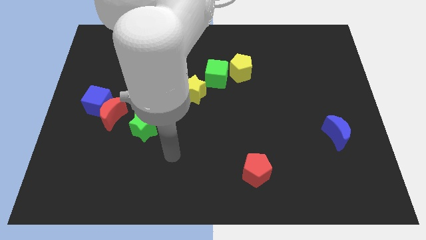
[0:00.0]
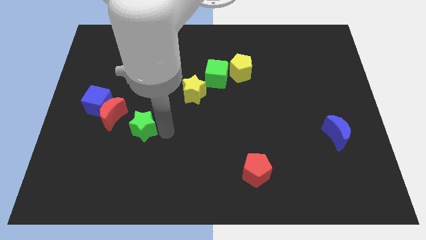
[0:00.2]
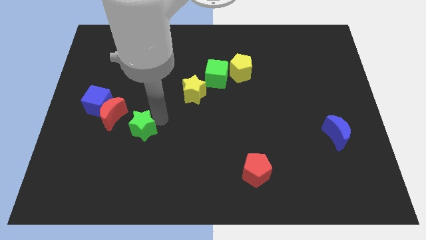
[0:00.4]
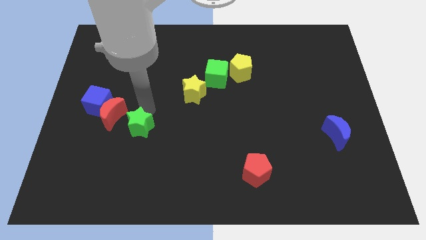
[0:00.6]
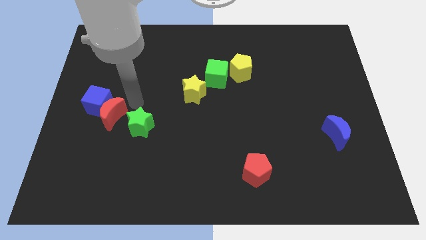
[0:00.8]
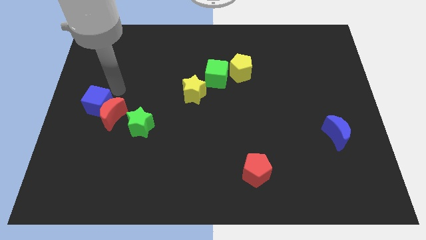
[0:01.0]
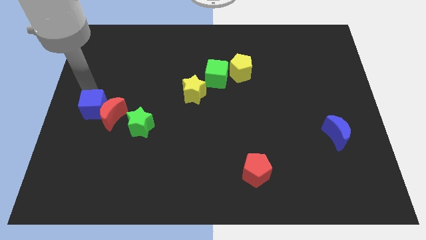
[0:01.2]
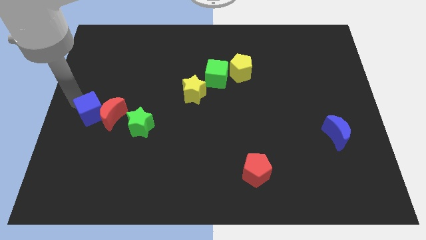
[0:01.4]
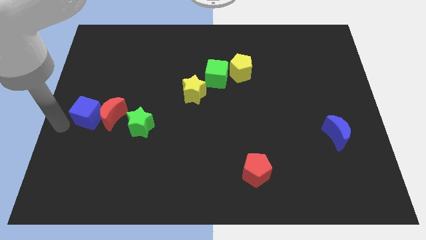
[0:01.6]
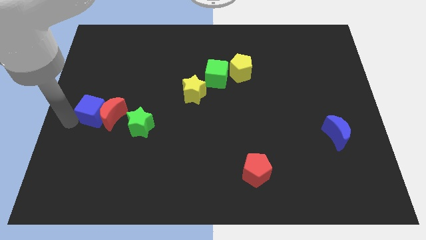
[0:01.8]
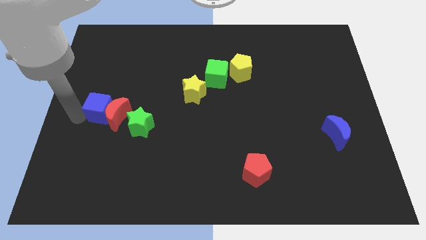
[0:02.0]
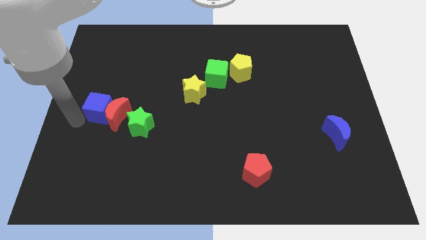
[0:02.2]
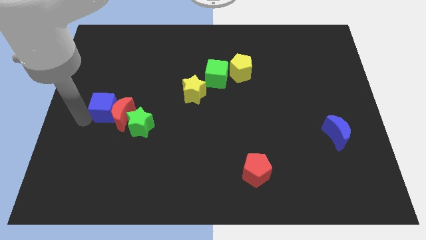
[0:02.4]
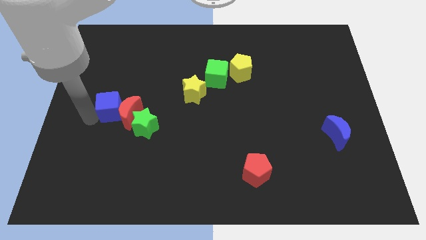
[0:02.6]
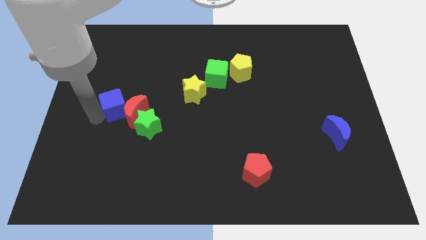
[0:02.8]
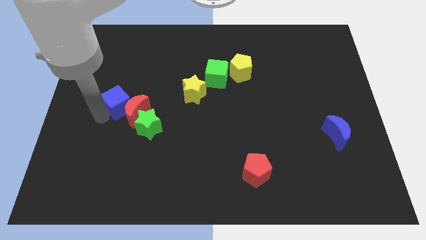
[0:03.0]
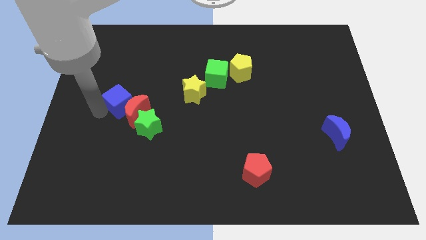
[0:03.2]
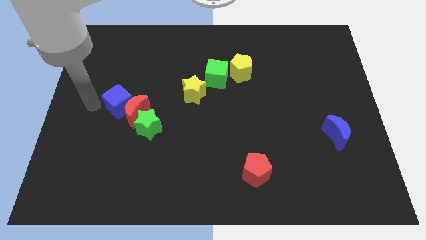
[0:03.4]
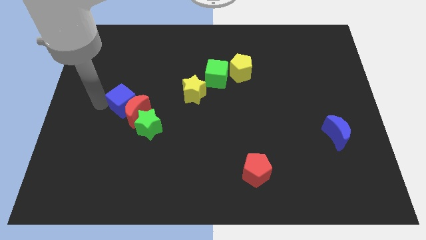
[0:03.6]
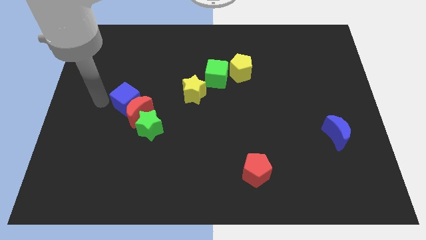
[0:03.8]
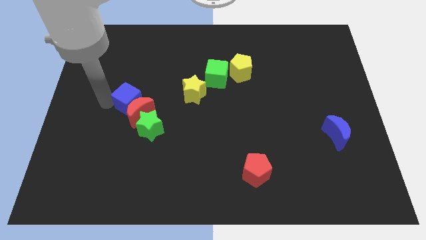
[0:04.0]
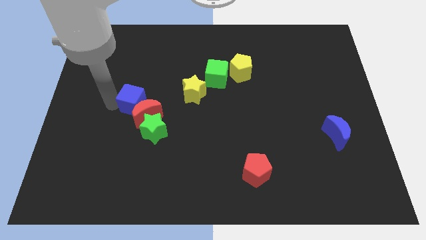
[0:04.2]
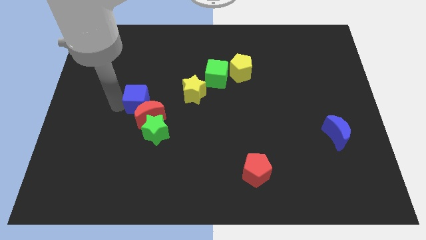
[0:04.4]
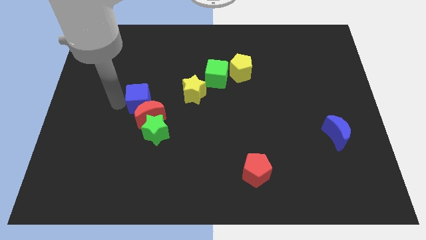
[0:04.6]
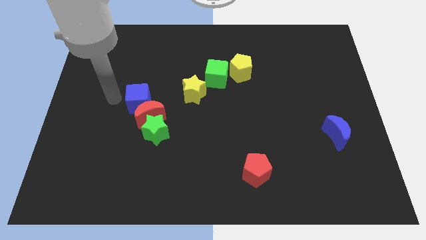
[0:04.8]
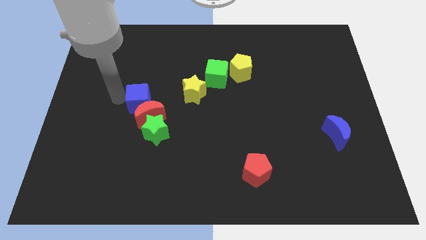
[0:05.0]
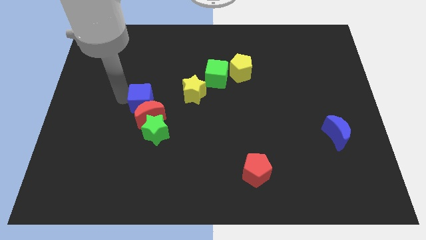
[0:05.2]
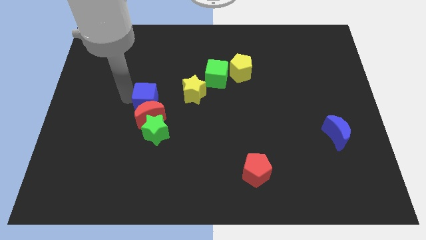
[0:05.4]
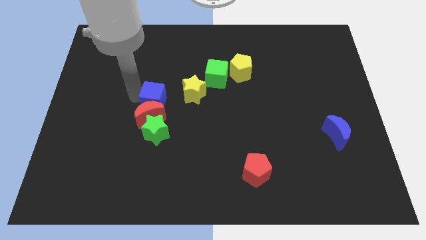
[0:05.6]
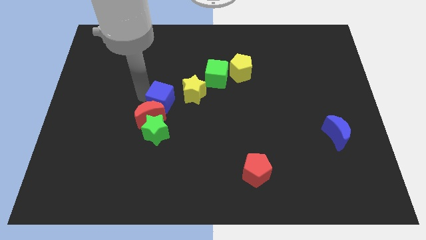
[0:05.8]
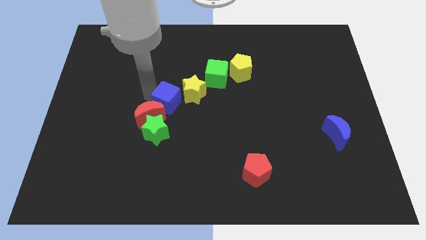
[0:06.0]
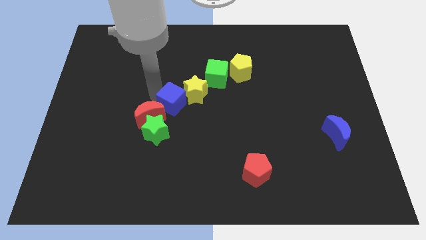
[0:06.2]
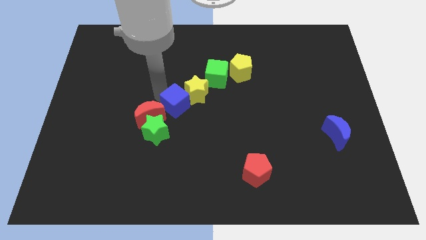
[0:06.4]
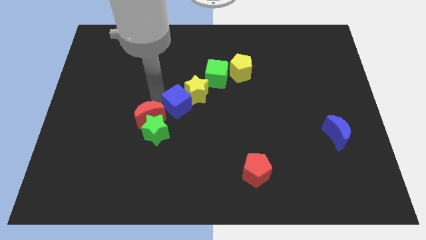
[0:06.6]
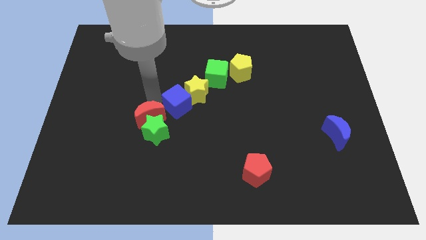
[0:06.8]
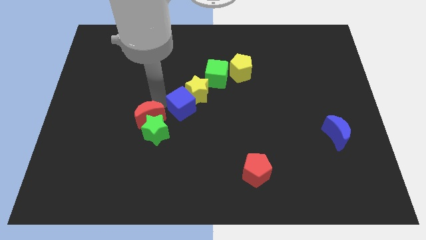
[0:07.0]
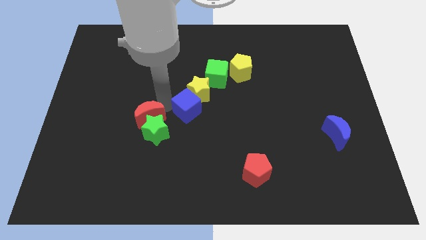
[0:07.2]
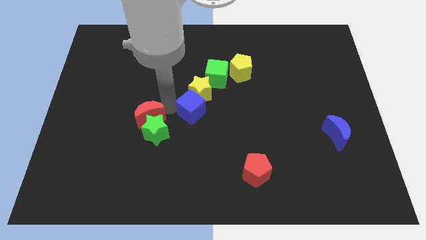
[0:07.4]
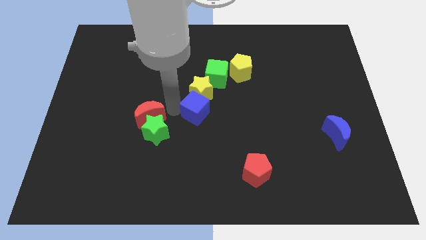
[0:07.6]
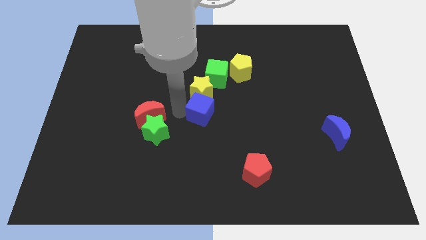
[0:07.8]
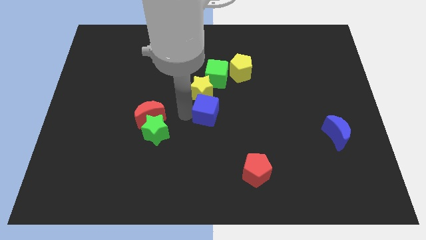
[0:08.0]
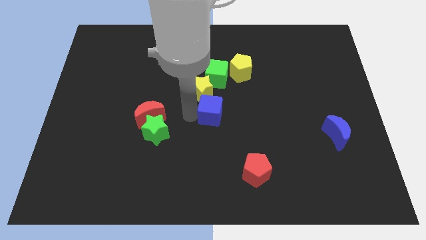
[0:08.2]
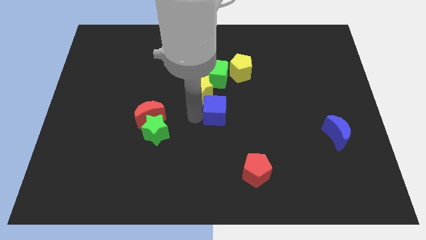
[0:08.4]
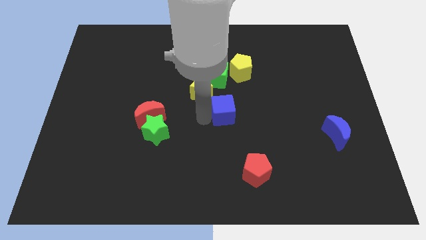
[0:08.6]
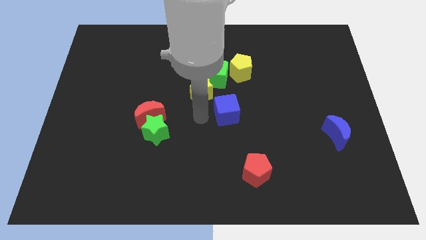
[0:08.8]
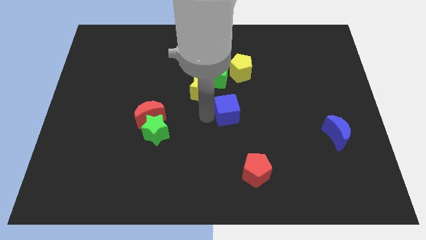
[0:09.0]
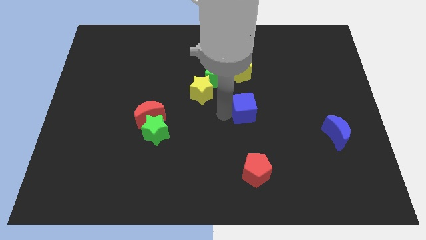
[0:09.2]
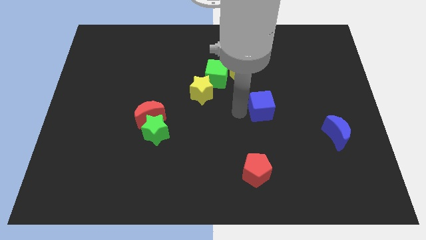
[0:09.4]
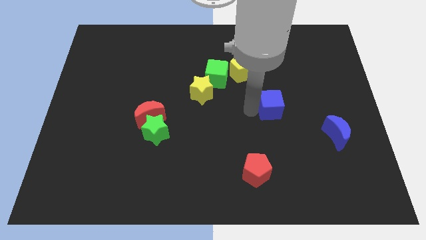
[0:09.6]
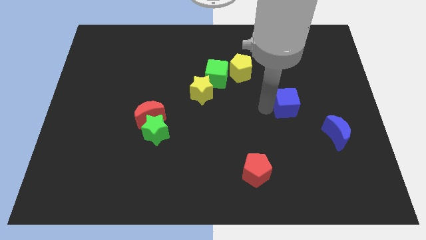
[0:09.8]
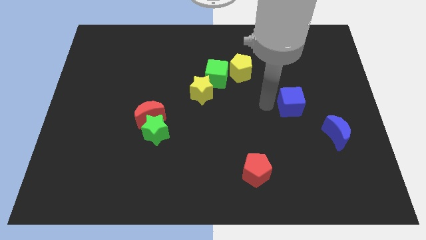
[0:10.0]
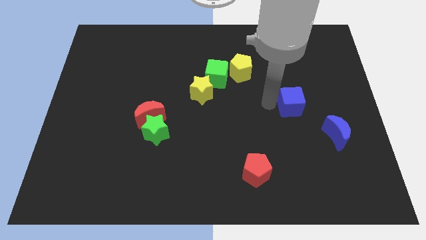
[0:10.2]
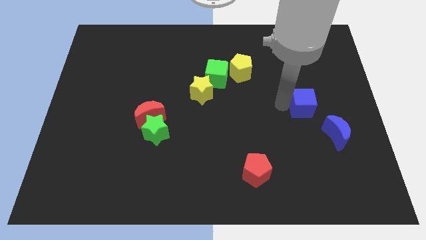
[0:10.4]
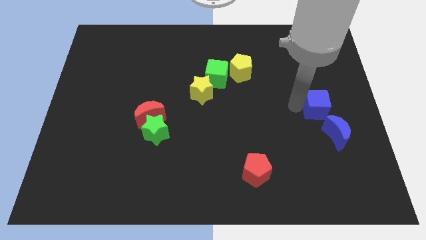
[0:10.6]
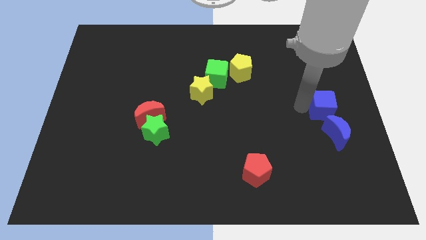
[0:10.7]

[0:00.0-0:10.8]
put the blue cube to the right side

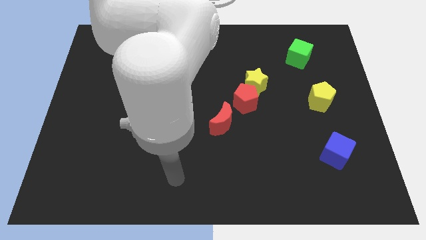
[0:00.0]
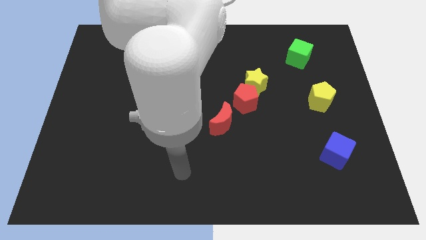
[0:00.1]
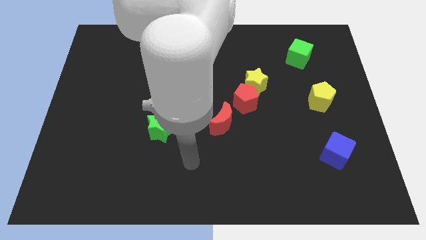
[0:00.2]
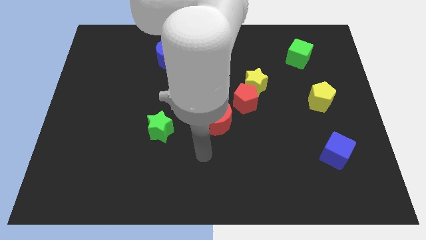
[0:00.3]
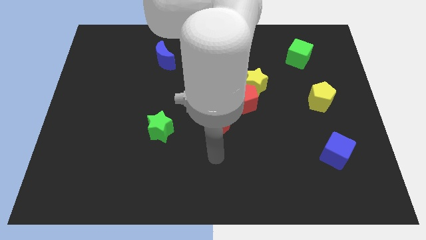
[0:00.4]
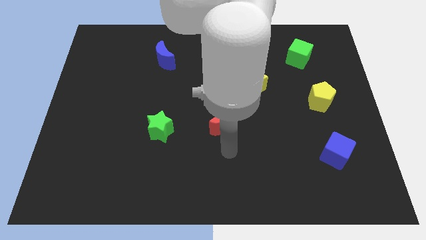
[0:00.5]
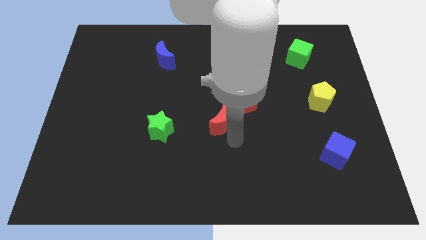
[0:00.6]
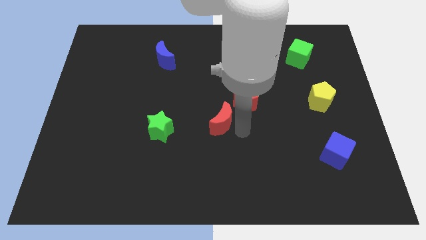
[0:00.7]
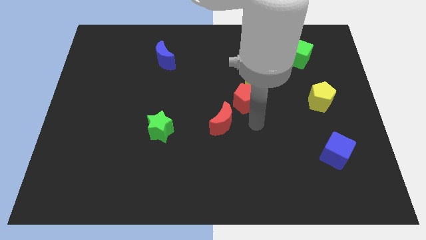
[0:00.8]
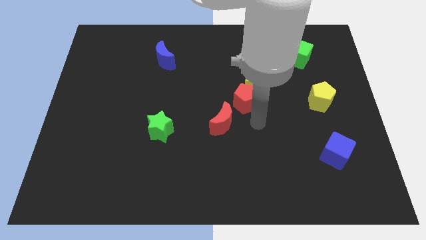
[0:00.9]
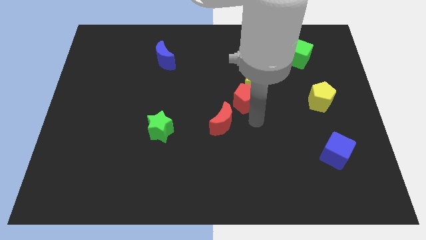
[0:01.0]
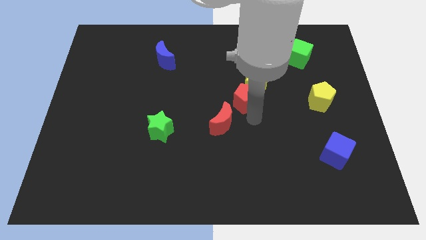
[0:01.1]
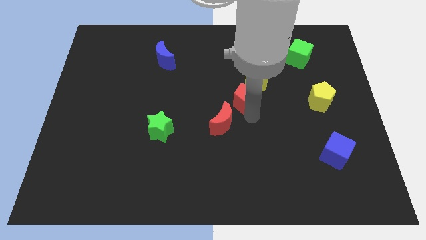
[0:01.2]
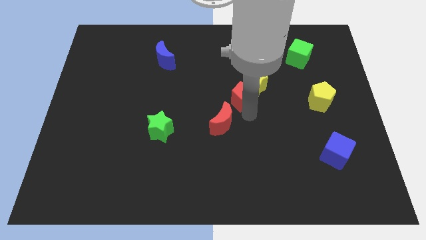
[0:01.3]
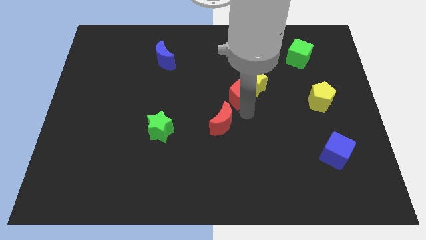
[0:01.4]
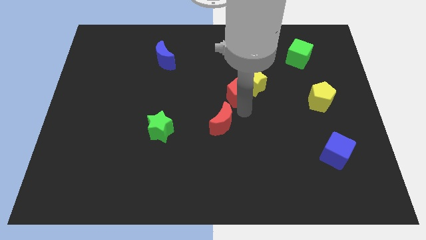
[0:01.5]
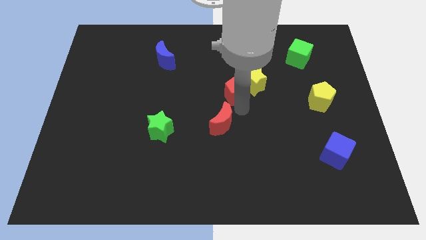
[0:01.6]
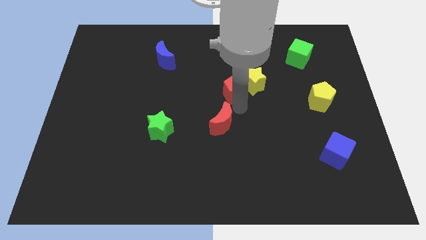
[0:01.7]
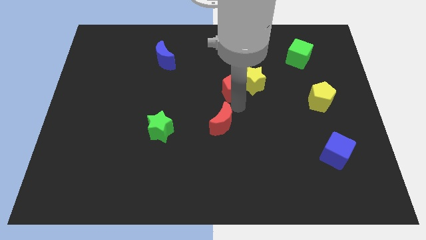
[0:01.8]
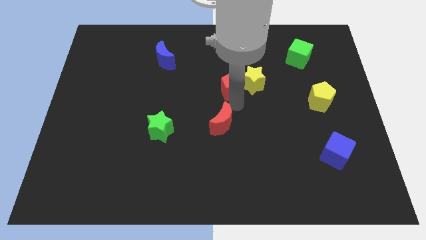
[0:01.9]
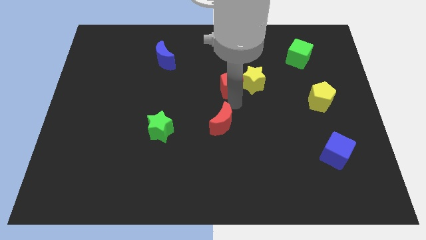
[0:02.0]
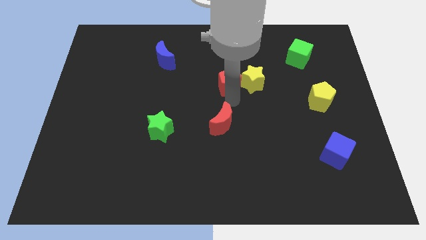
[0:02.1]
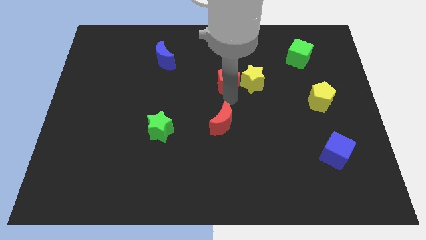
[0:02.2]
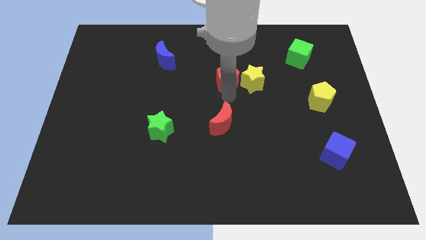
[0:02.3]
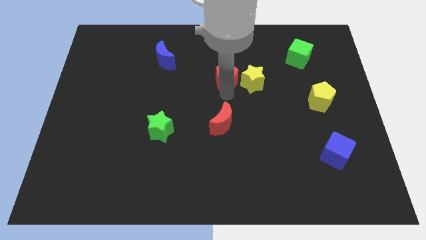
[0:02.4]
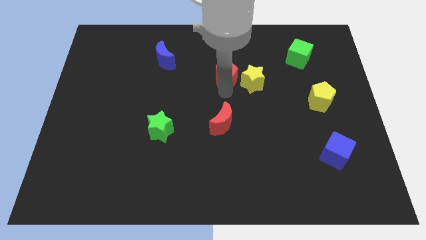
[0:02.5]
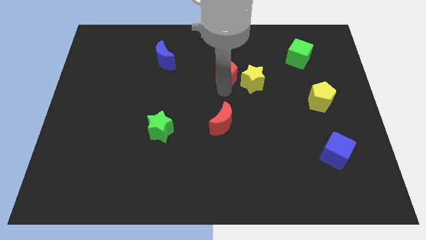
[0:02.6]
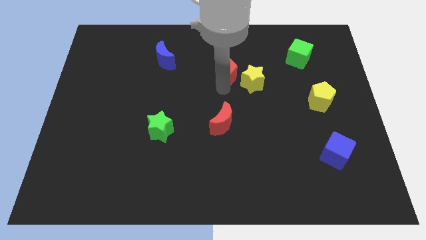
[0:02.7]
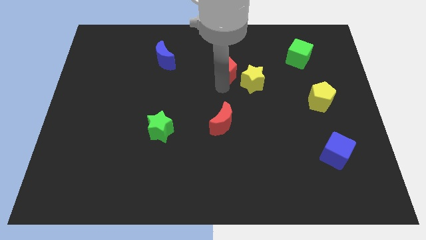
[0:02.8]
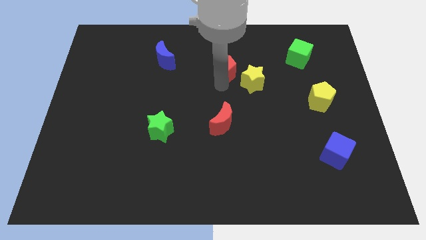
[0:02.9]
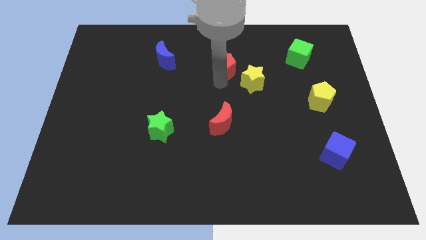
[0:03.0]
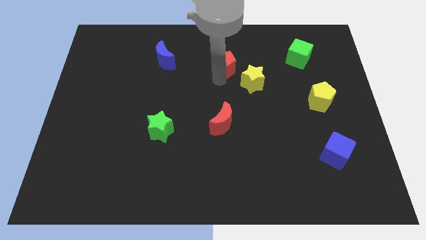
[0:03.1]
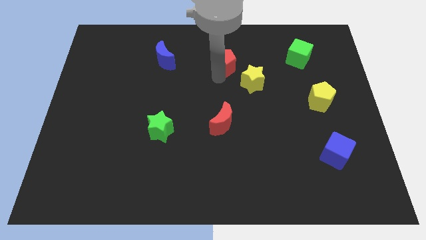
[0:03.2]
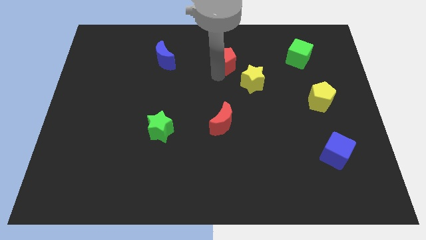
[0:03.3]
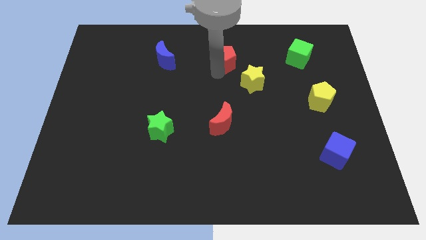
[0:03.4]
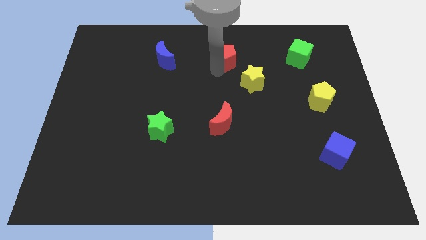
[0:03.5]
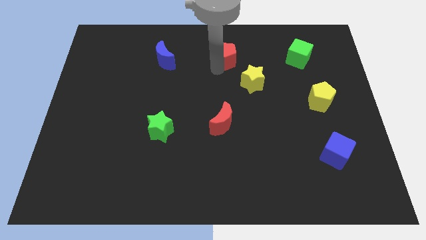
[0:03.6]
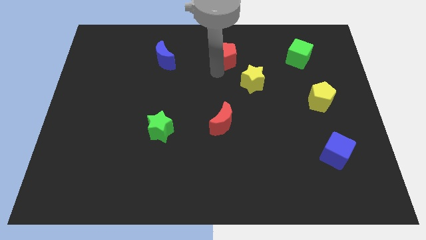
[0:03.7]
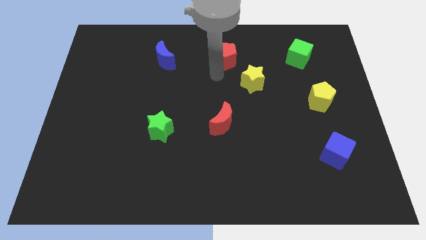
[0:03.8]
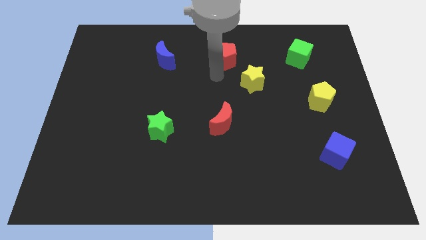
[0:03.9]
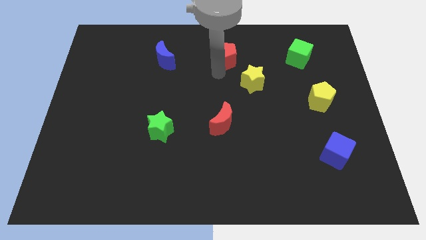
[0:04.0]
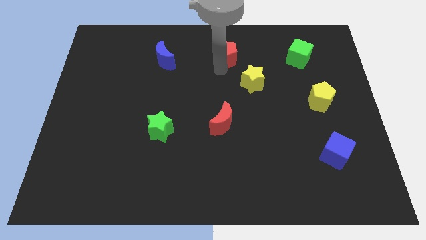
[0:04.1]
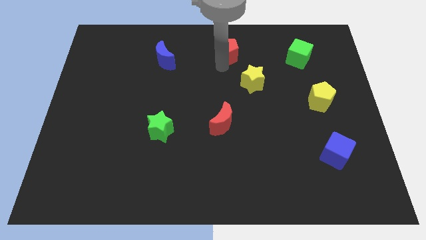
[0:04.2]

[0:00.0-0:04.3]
move the red pentagon to the towards your base
